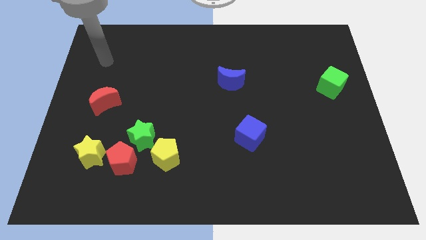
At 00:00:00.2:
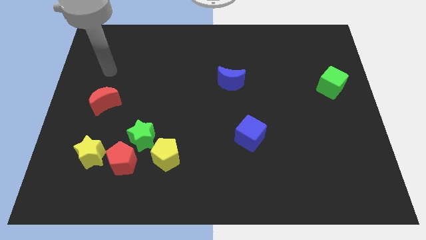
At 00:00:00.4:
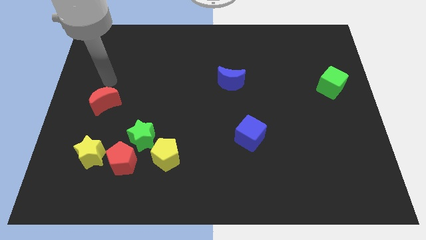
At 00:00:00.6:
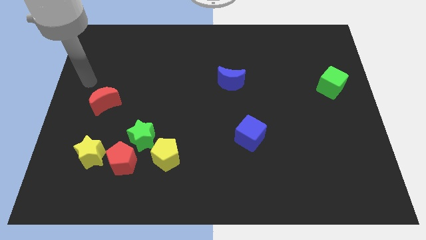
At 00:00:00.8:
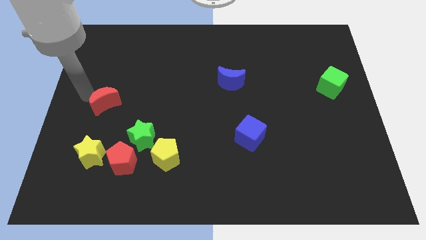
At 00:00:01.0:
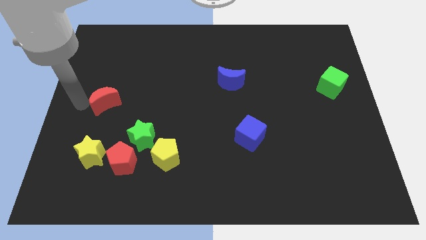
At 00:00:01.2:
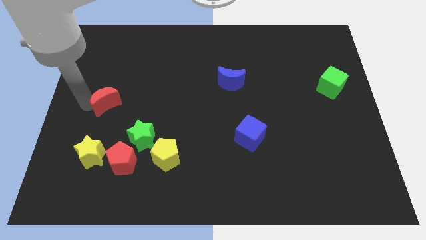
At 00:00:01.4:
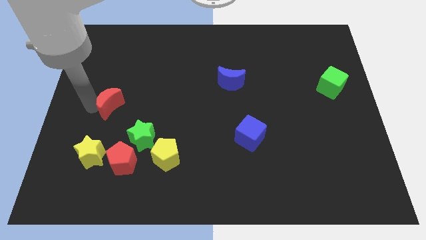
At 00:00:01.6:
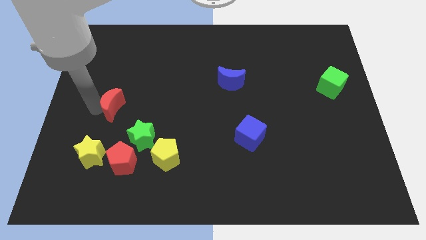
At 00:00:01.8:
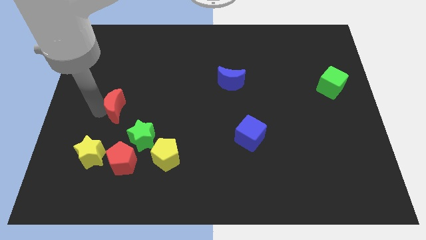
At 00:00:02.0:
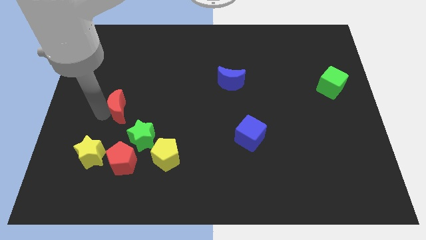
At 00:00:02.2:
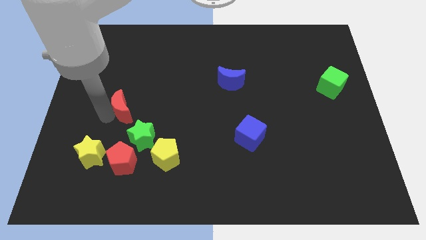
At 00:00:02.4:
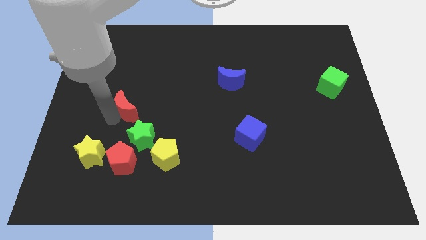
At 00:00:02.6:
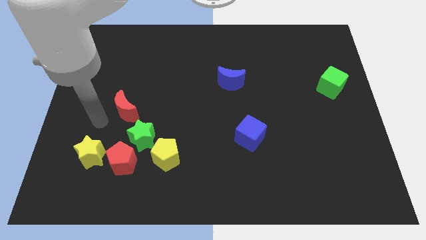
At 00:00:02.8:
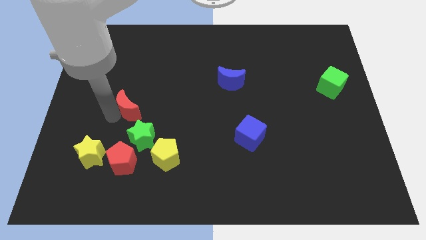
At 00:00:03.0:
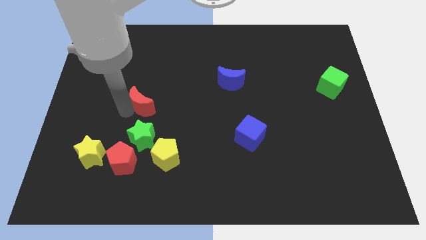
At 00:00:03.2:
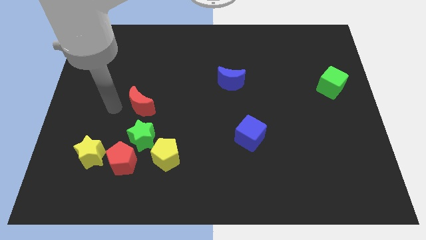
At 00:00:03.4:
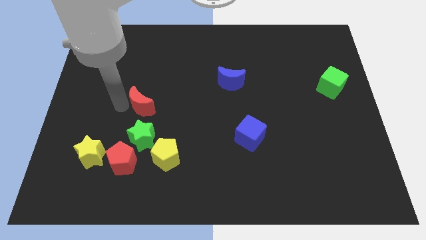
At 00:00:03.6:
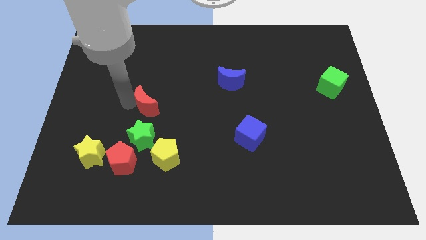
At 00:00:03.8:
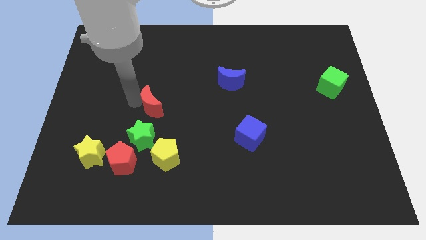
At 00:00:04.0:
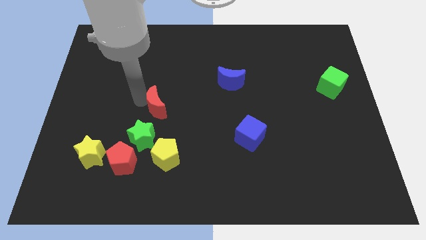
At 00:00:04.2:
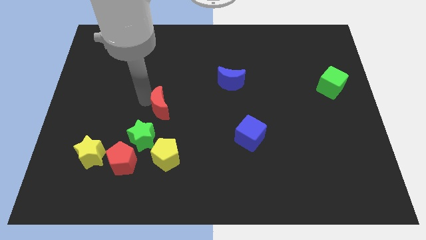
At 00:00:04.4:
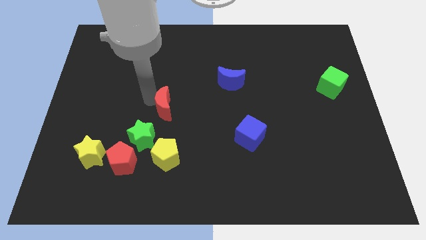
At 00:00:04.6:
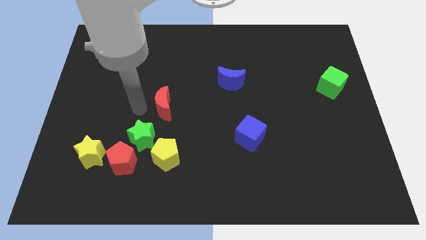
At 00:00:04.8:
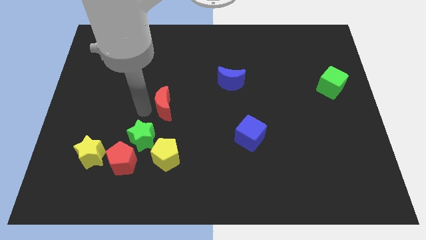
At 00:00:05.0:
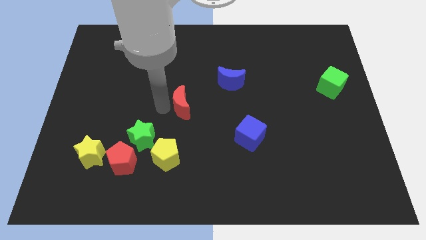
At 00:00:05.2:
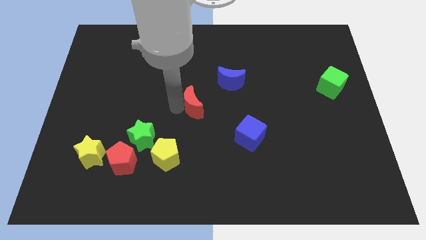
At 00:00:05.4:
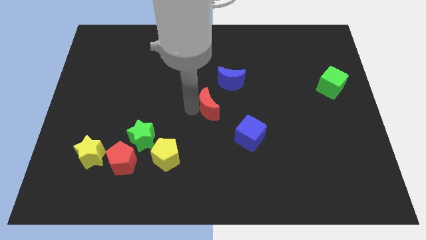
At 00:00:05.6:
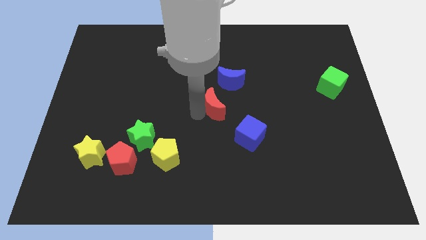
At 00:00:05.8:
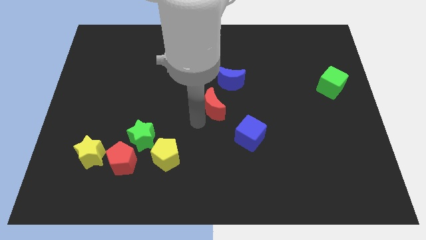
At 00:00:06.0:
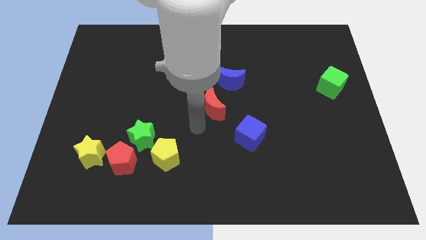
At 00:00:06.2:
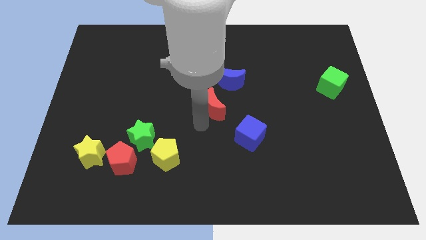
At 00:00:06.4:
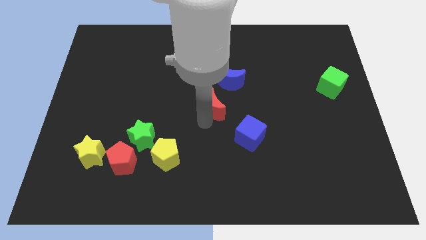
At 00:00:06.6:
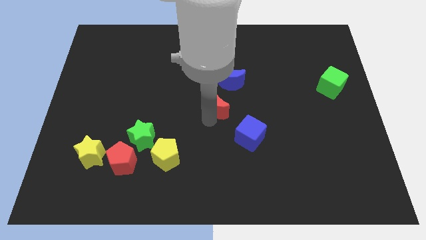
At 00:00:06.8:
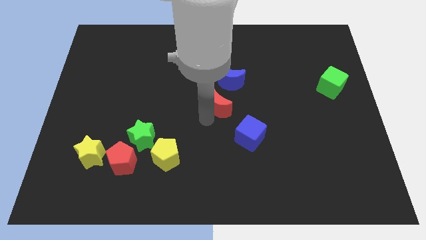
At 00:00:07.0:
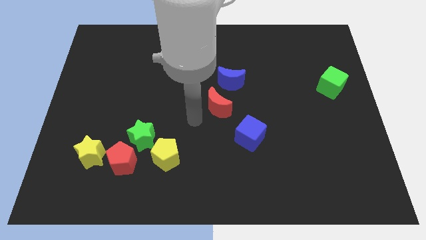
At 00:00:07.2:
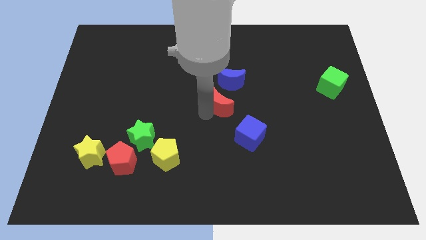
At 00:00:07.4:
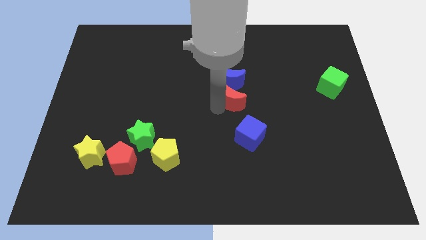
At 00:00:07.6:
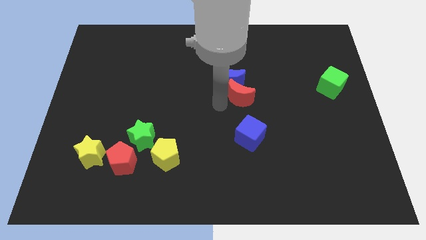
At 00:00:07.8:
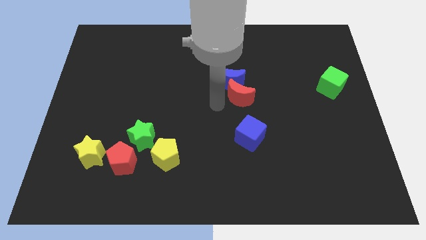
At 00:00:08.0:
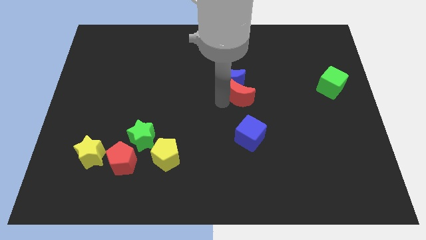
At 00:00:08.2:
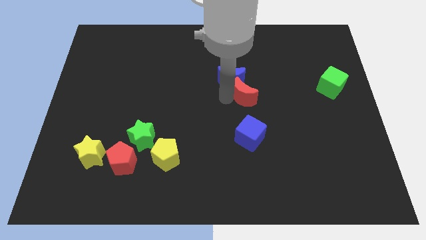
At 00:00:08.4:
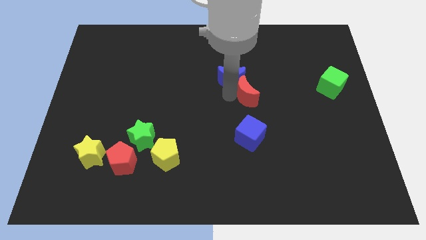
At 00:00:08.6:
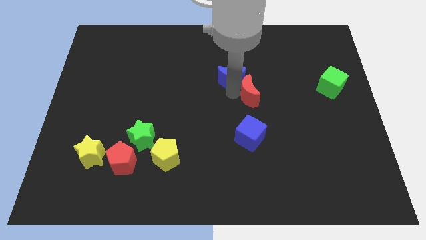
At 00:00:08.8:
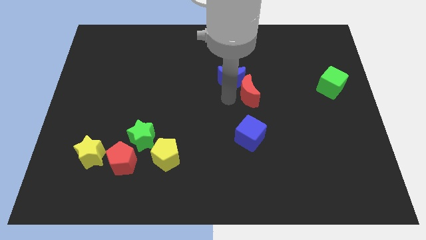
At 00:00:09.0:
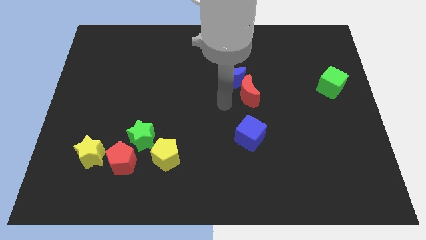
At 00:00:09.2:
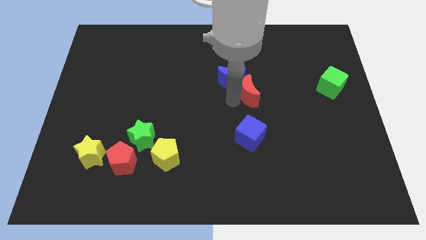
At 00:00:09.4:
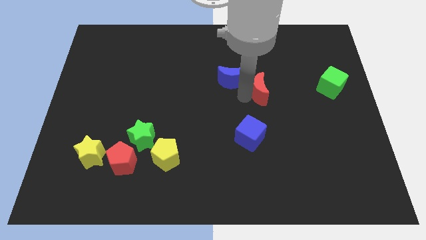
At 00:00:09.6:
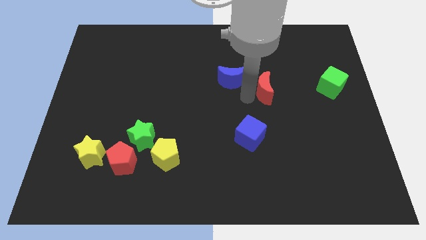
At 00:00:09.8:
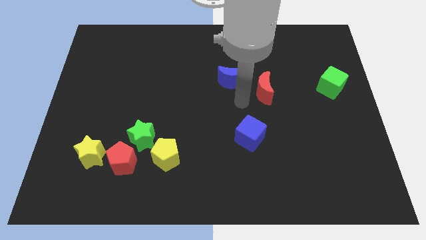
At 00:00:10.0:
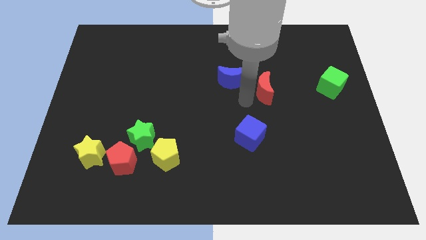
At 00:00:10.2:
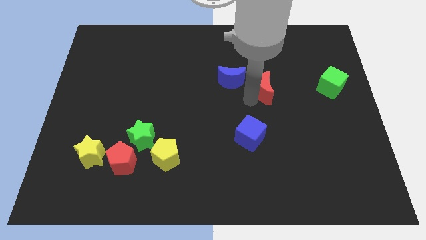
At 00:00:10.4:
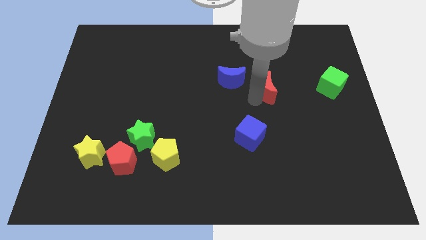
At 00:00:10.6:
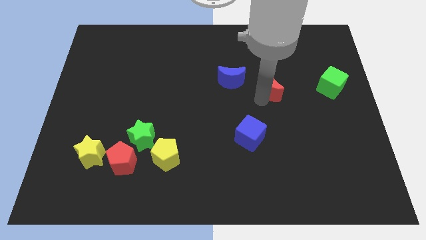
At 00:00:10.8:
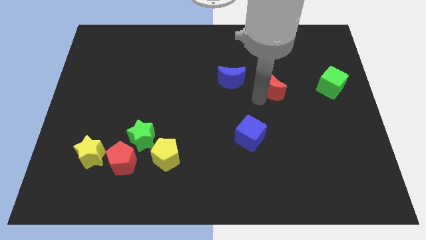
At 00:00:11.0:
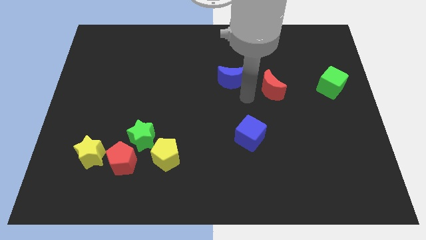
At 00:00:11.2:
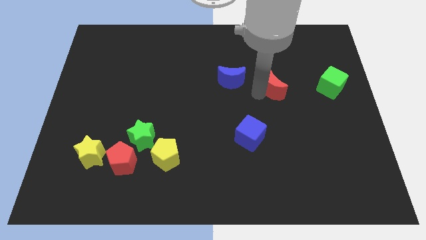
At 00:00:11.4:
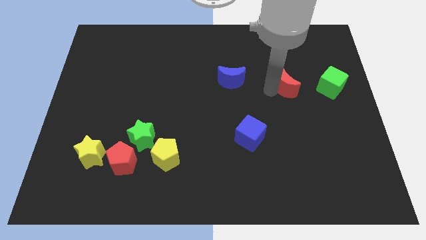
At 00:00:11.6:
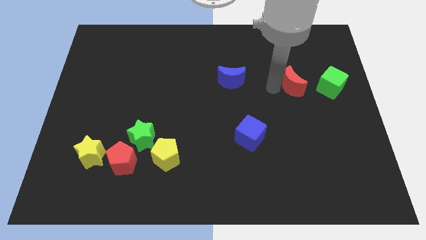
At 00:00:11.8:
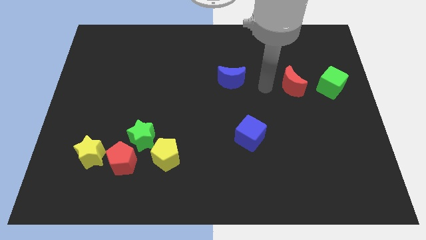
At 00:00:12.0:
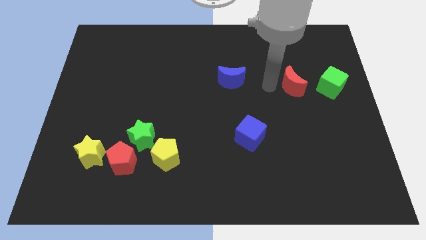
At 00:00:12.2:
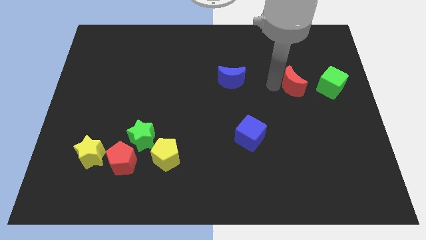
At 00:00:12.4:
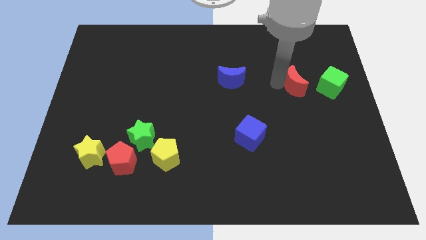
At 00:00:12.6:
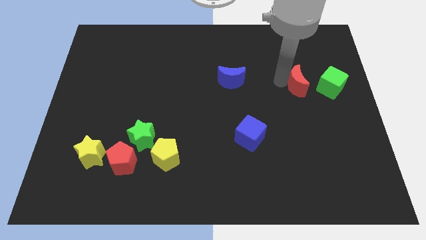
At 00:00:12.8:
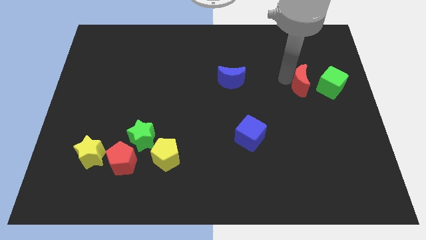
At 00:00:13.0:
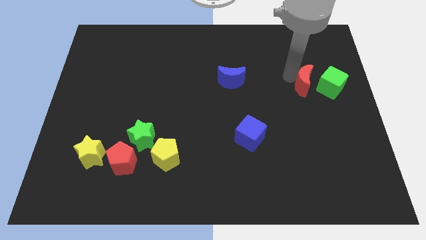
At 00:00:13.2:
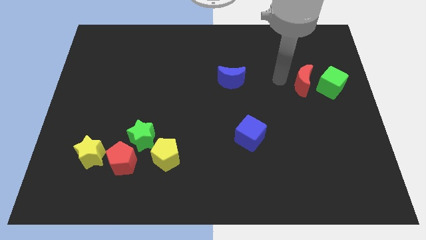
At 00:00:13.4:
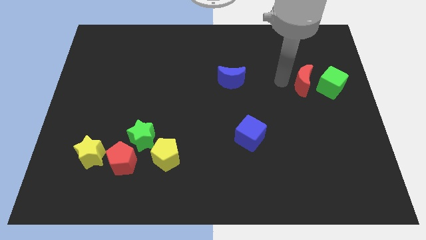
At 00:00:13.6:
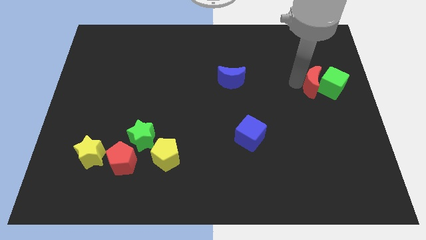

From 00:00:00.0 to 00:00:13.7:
push the red moon next to the green cube
